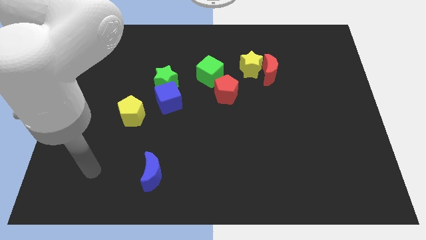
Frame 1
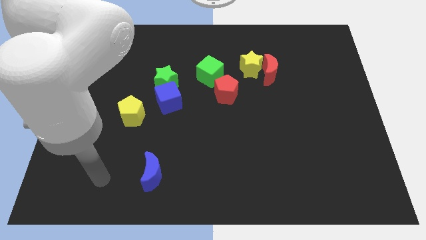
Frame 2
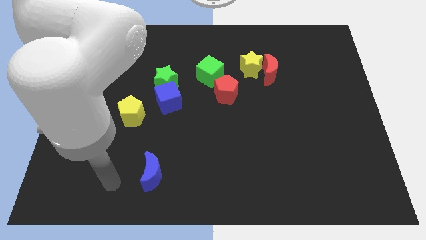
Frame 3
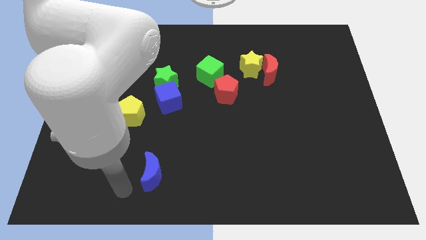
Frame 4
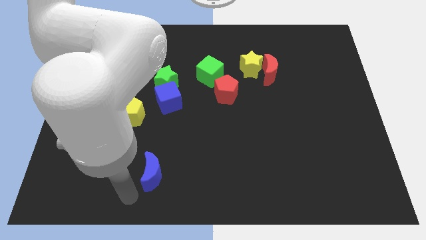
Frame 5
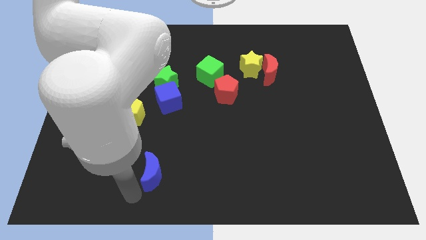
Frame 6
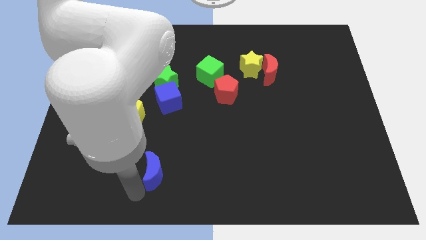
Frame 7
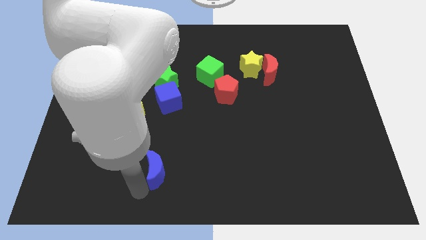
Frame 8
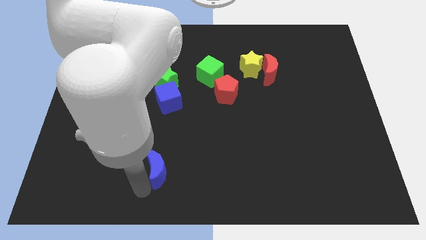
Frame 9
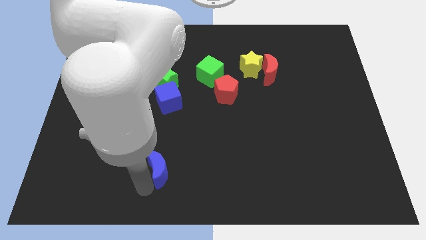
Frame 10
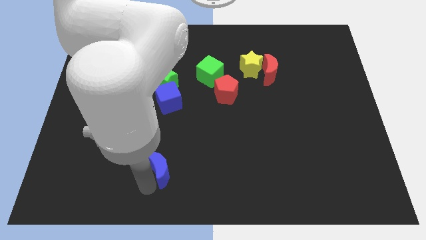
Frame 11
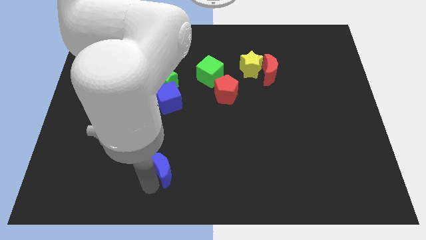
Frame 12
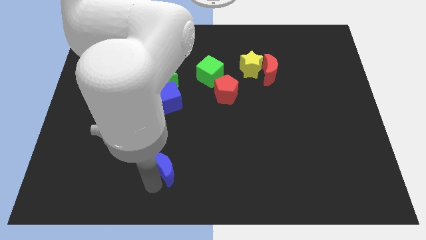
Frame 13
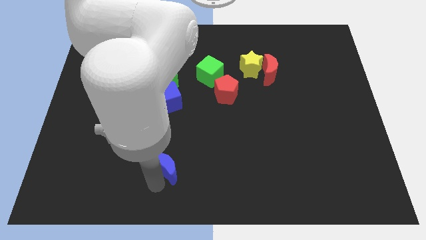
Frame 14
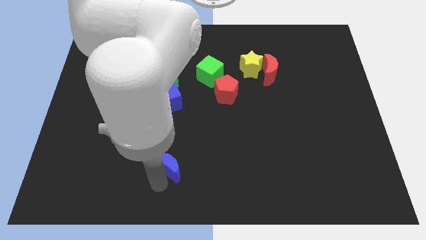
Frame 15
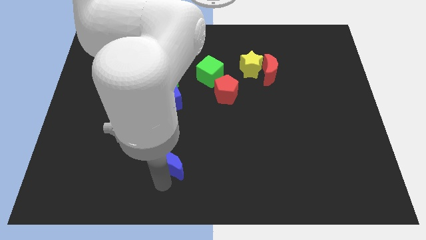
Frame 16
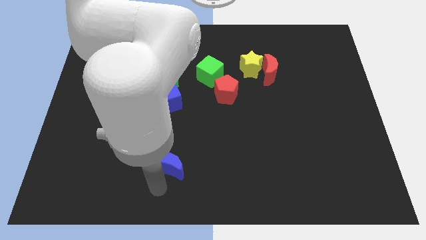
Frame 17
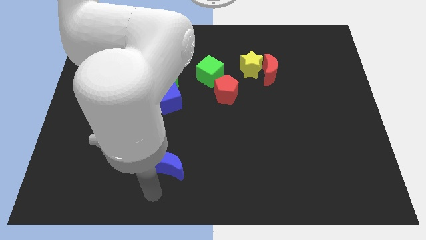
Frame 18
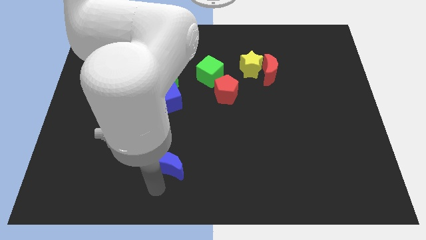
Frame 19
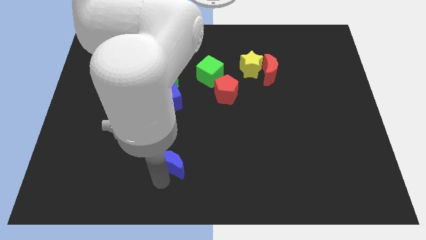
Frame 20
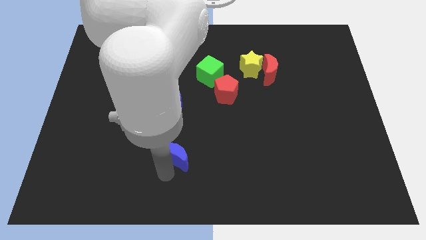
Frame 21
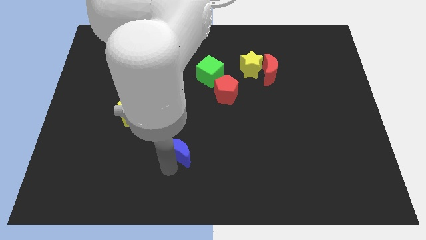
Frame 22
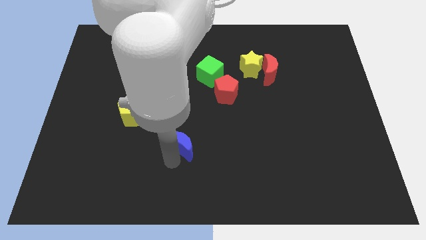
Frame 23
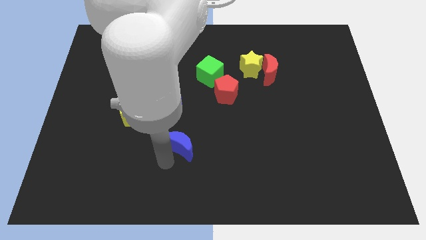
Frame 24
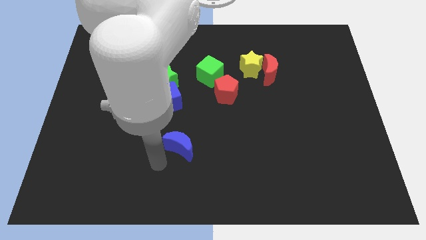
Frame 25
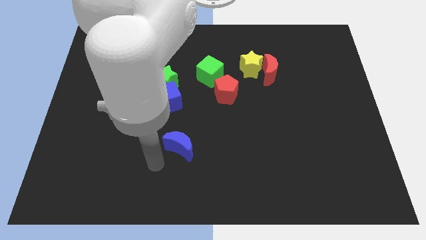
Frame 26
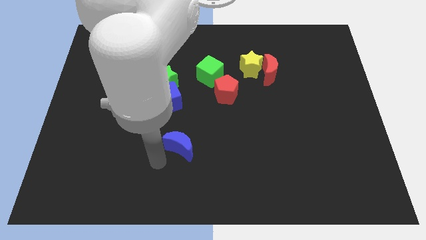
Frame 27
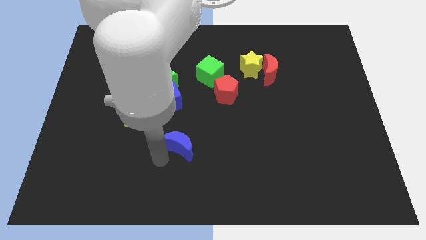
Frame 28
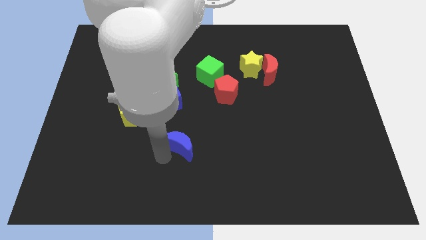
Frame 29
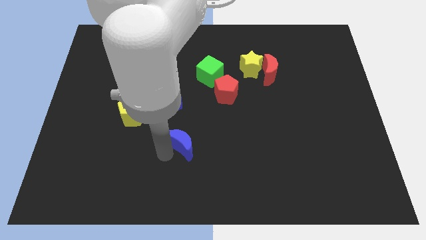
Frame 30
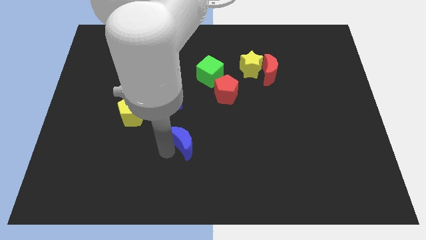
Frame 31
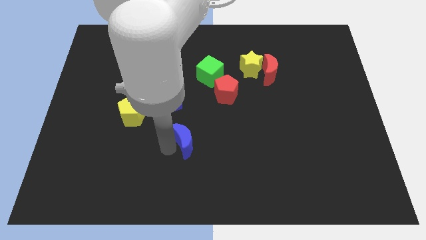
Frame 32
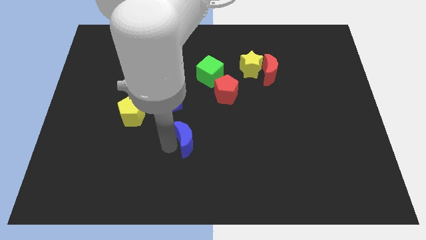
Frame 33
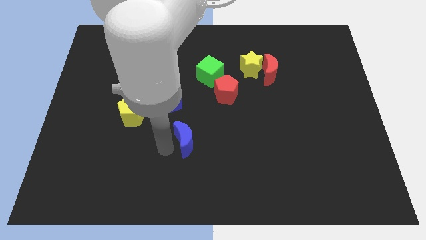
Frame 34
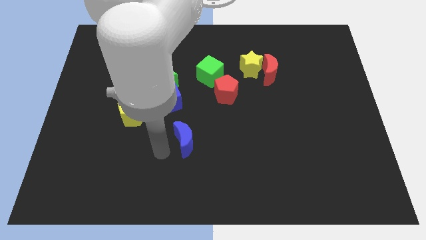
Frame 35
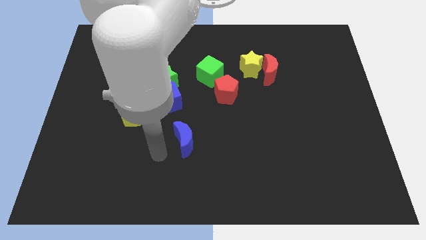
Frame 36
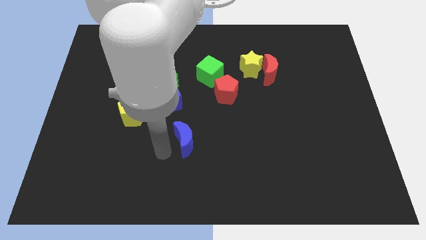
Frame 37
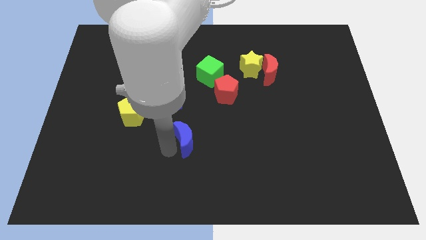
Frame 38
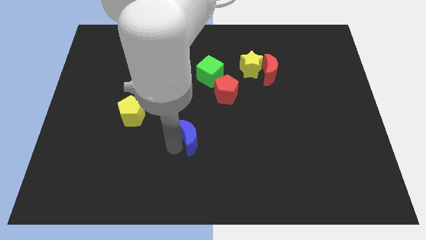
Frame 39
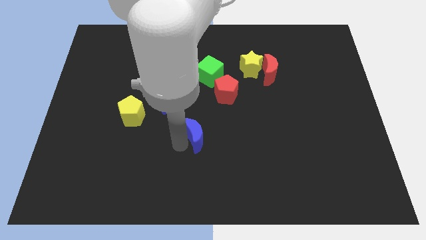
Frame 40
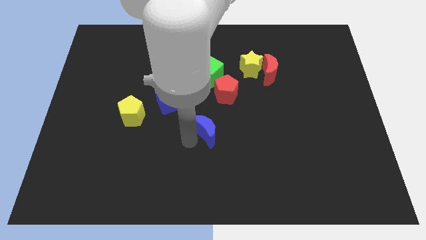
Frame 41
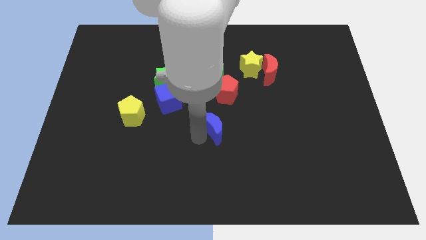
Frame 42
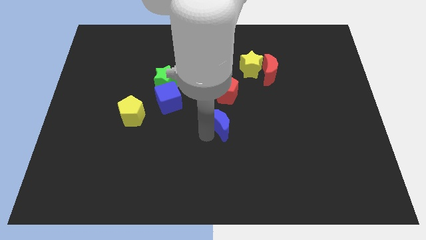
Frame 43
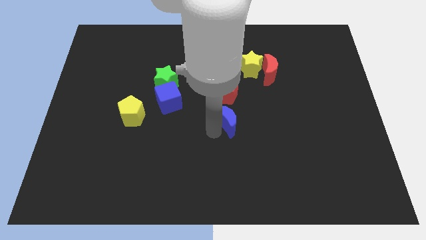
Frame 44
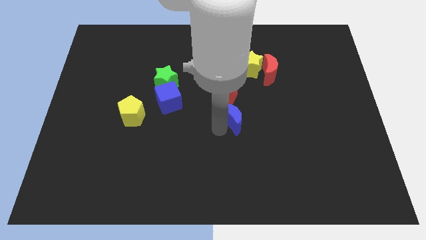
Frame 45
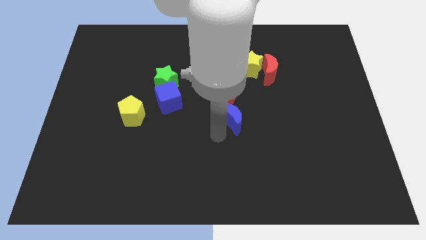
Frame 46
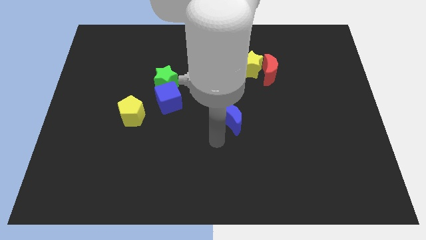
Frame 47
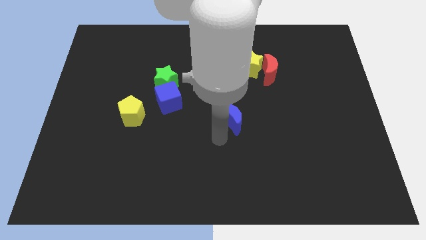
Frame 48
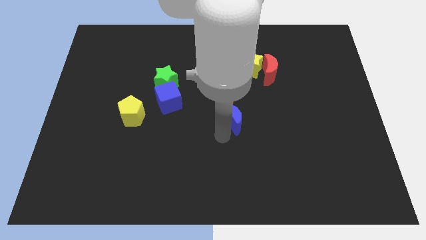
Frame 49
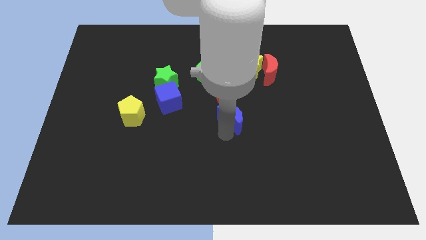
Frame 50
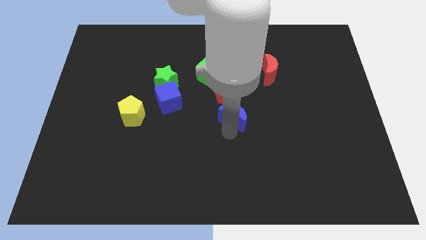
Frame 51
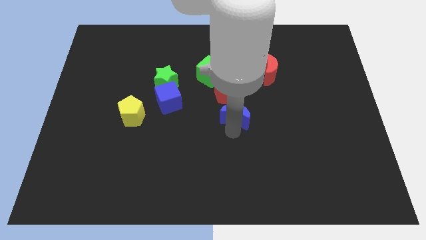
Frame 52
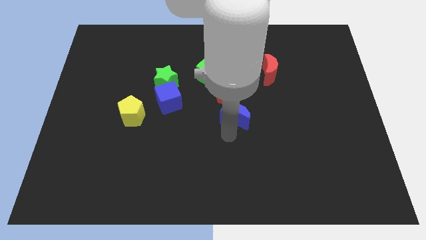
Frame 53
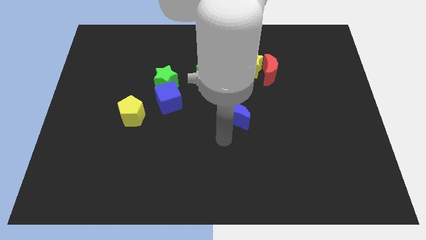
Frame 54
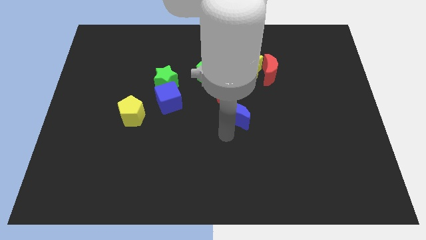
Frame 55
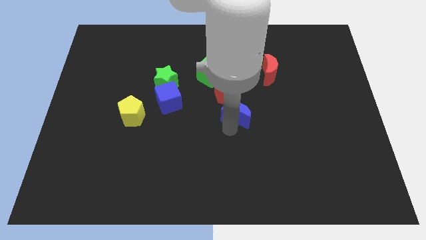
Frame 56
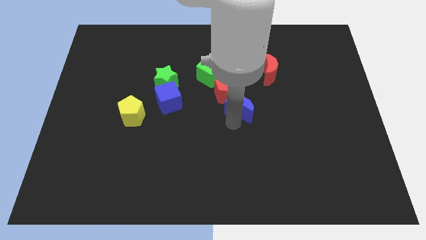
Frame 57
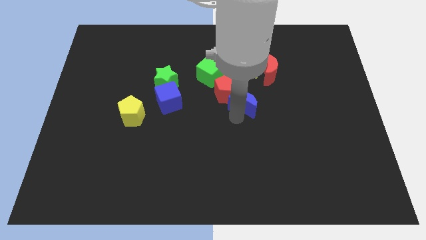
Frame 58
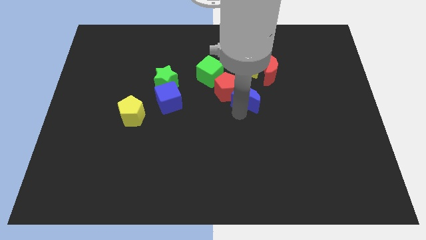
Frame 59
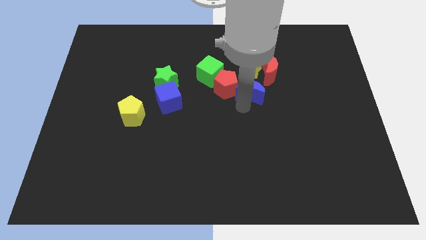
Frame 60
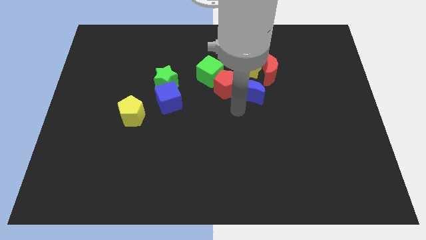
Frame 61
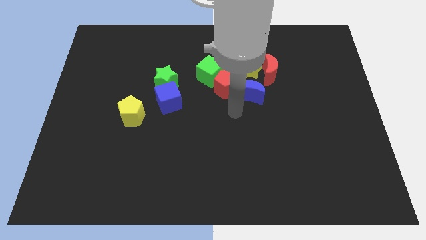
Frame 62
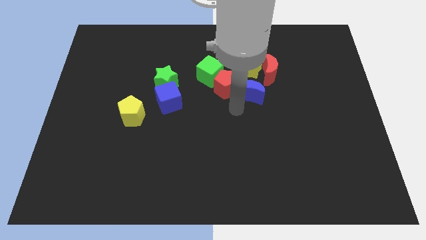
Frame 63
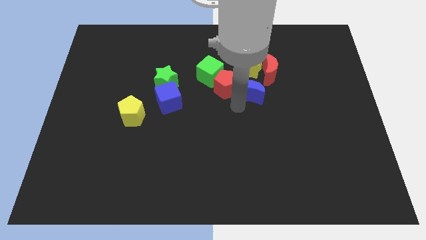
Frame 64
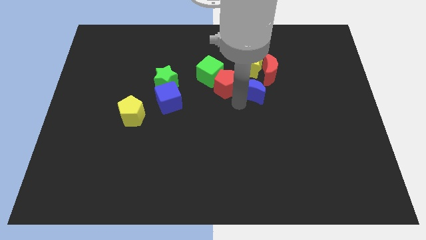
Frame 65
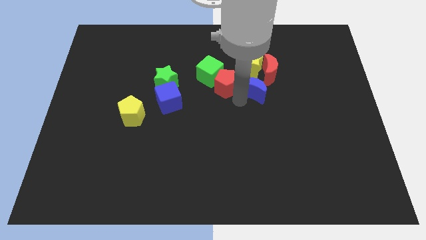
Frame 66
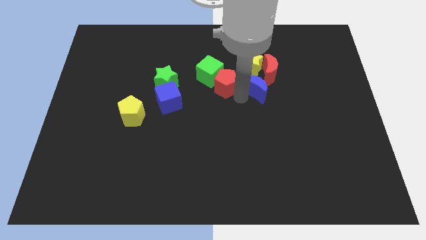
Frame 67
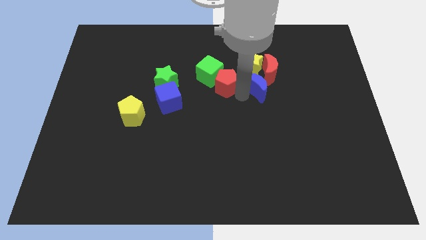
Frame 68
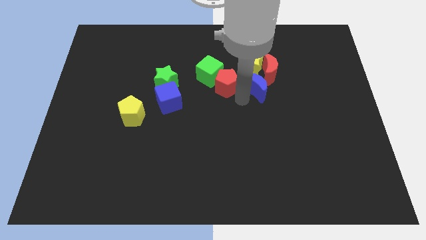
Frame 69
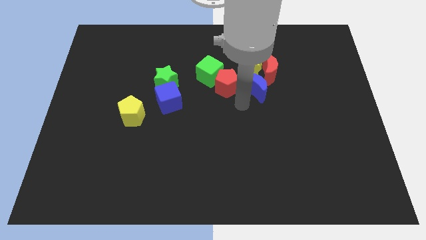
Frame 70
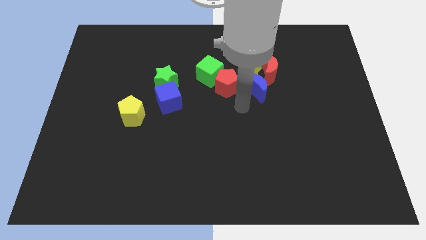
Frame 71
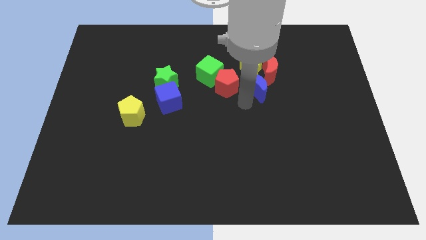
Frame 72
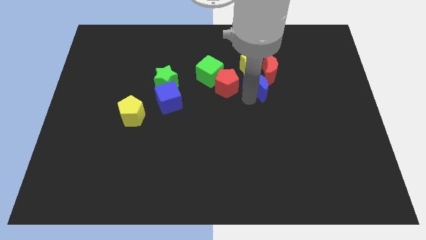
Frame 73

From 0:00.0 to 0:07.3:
push the blue moon close to the red moon

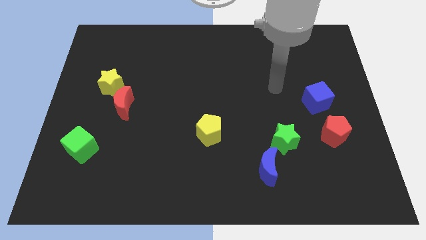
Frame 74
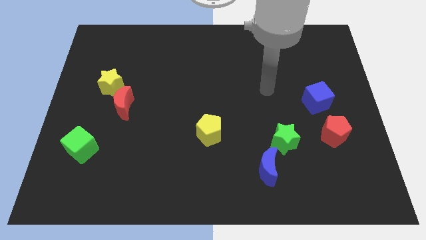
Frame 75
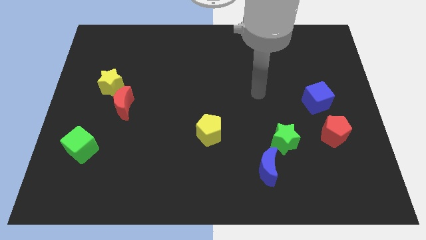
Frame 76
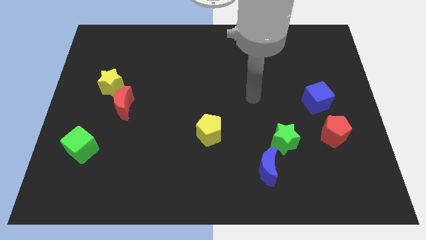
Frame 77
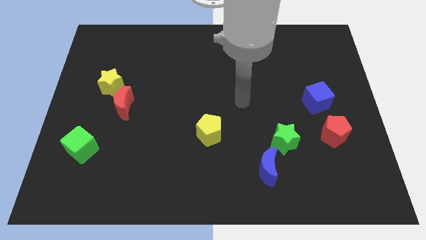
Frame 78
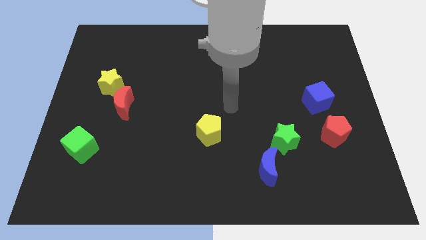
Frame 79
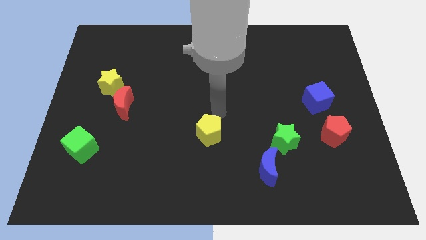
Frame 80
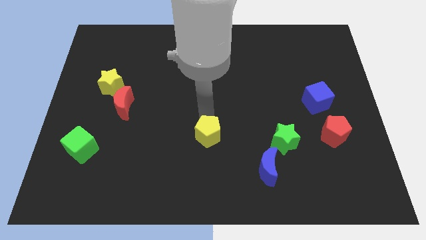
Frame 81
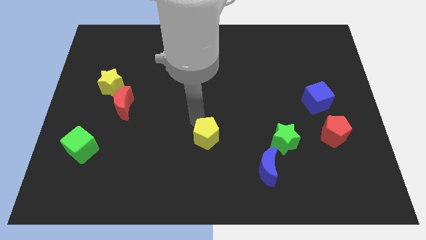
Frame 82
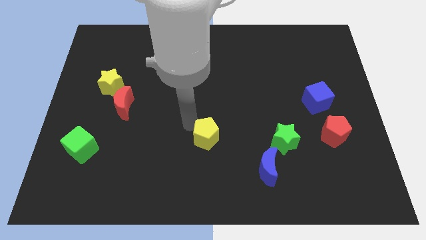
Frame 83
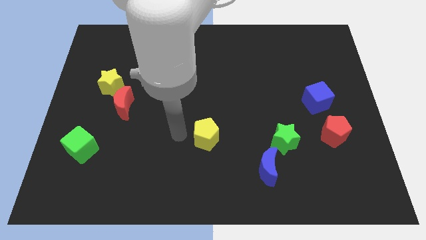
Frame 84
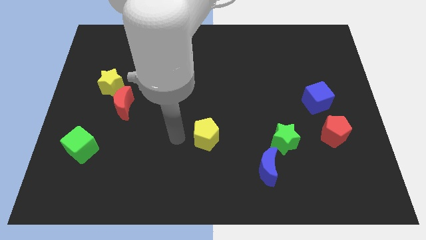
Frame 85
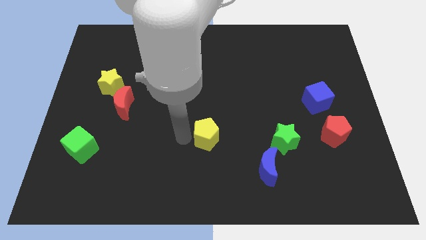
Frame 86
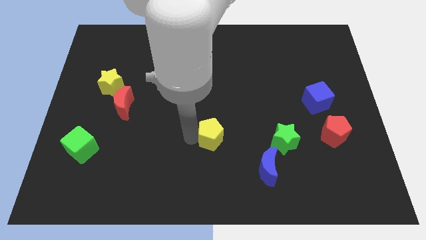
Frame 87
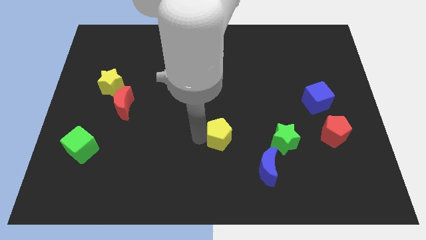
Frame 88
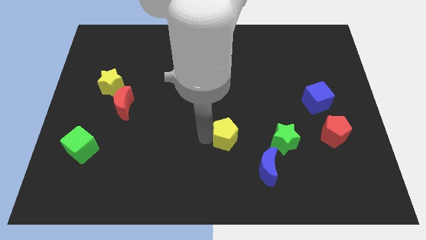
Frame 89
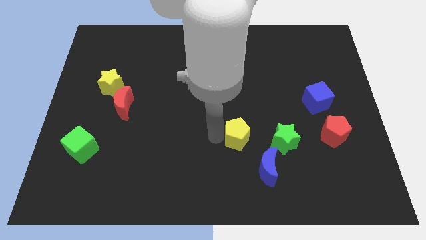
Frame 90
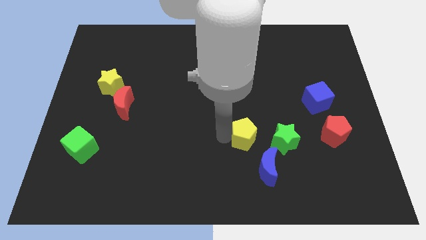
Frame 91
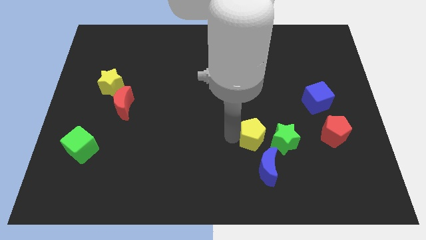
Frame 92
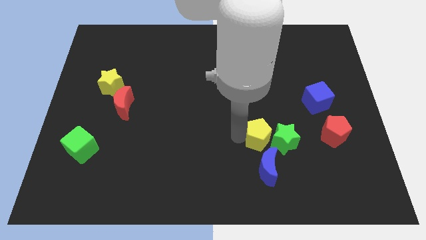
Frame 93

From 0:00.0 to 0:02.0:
slide the yellow pentagon close to the green star
